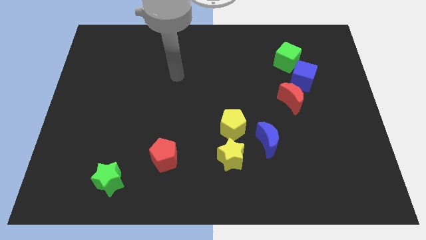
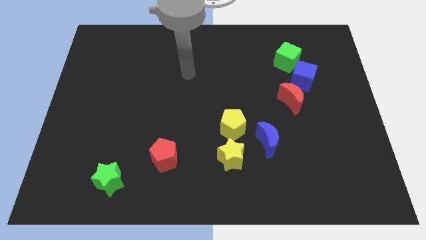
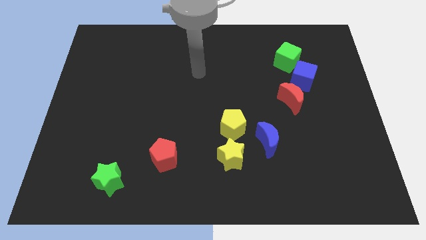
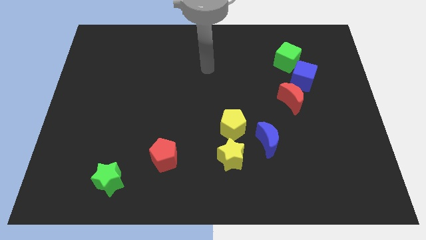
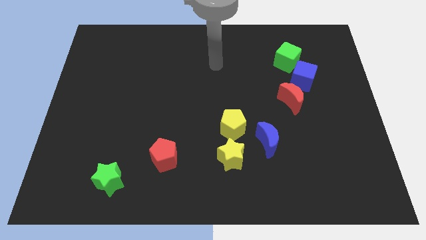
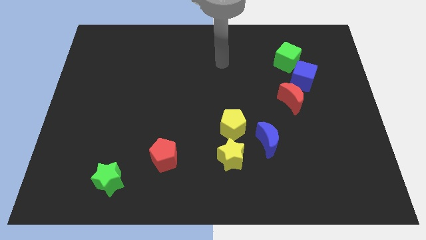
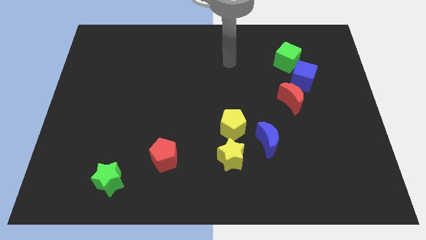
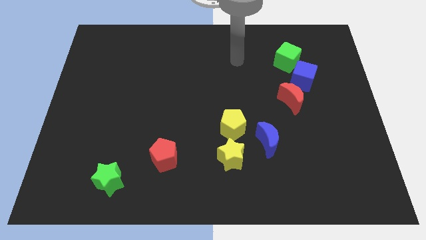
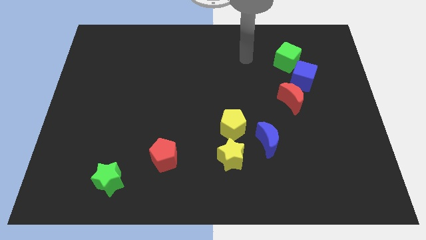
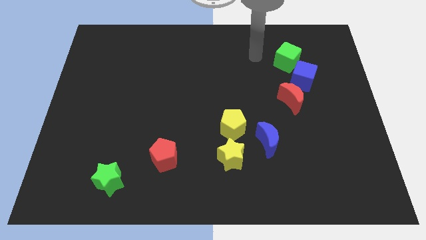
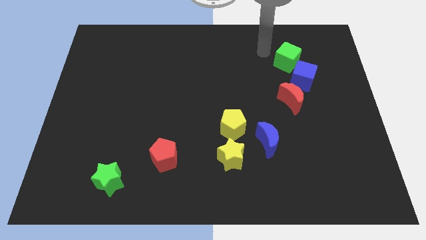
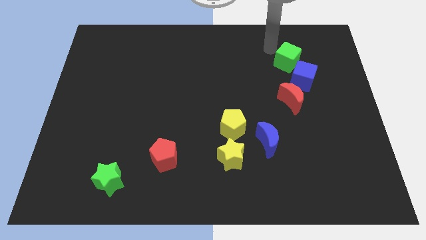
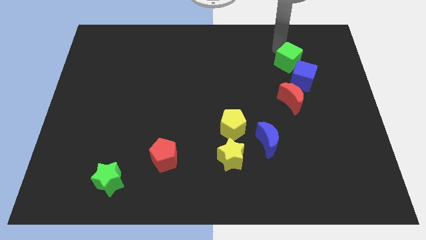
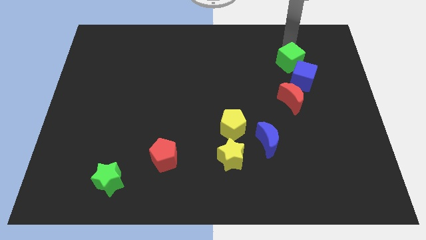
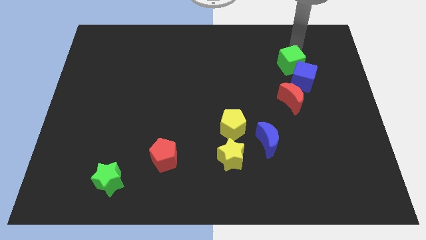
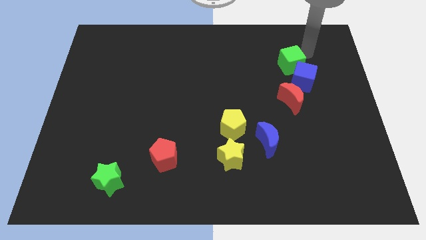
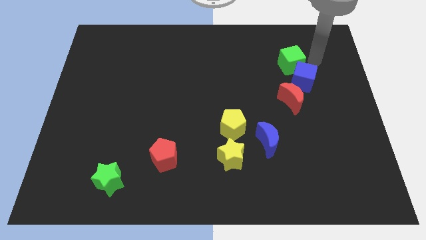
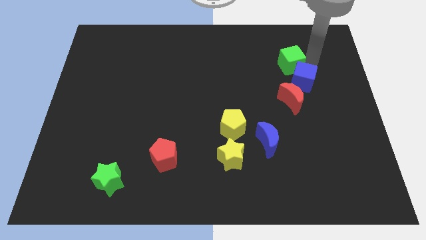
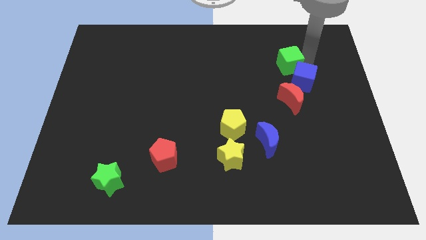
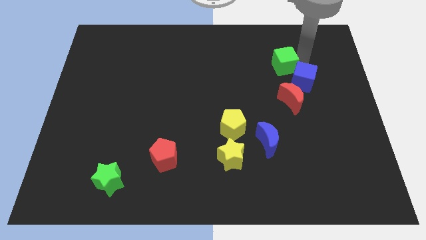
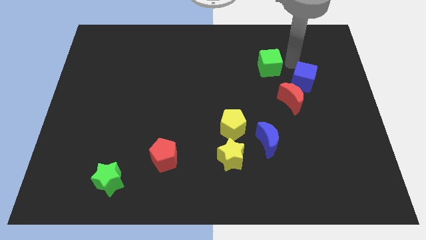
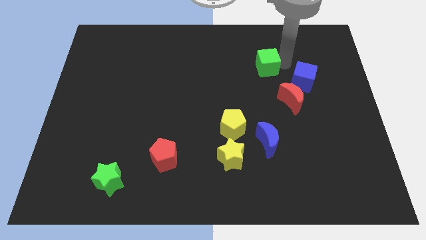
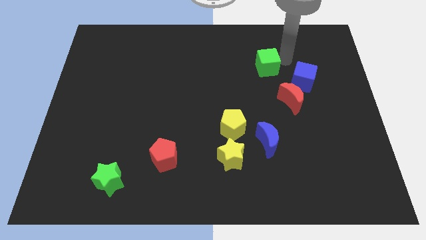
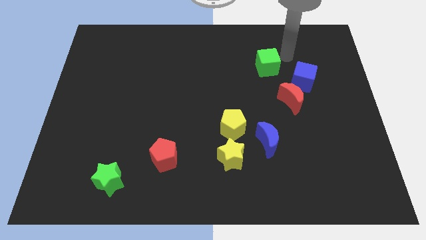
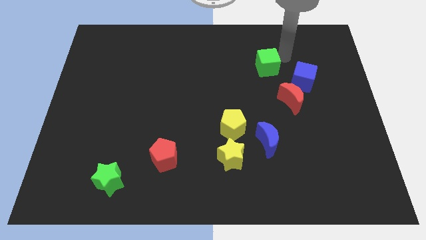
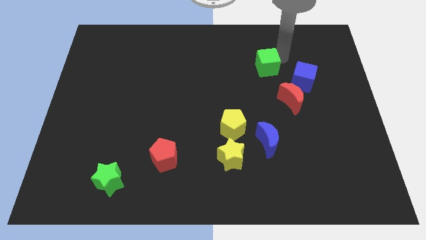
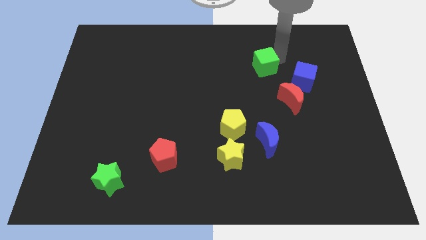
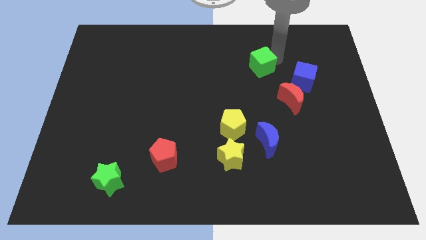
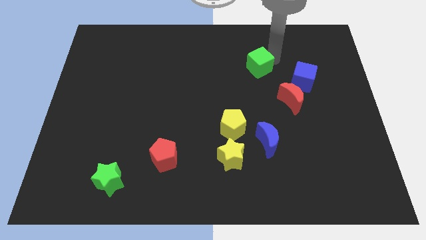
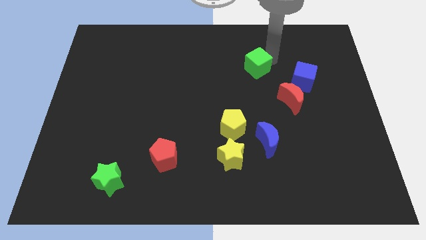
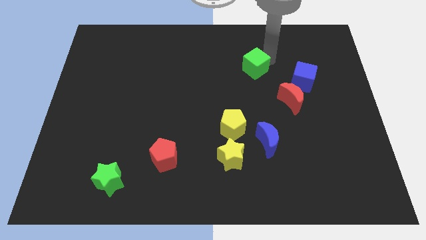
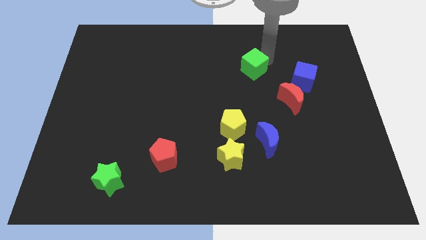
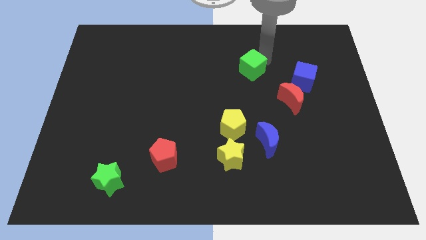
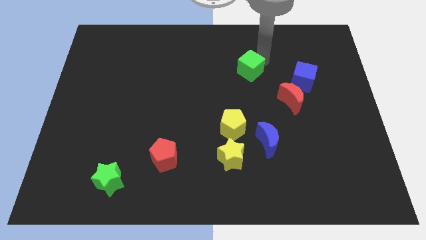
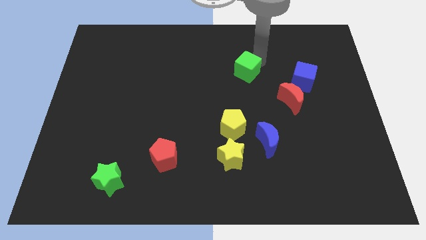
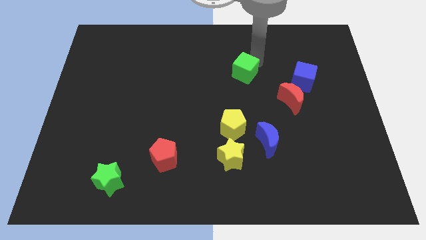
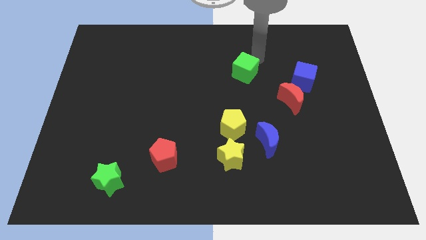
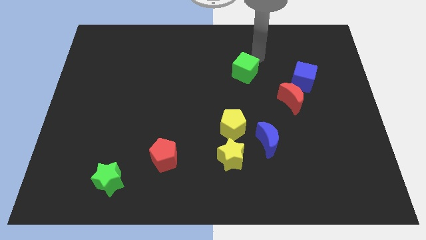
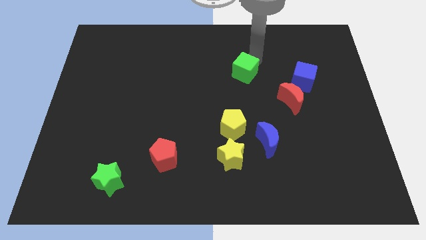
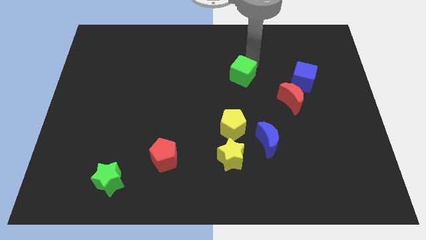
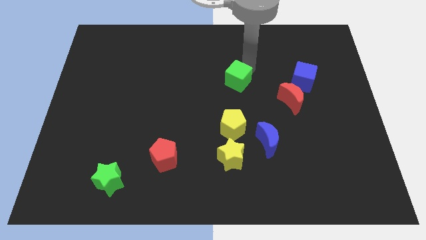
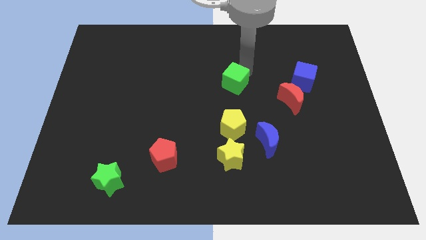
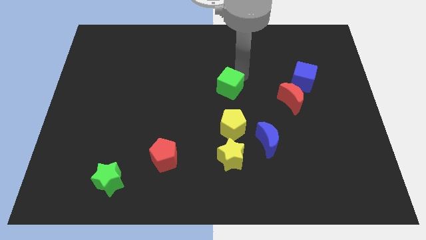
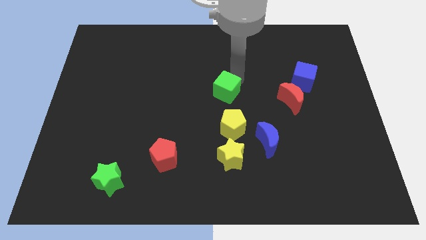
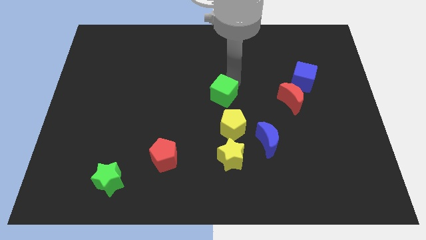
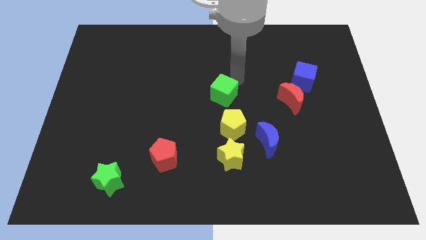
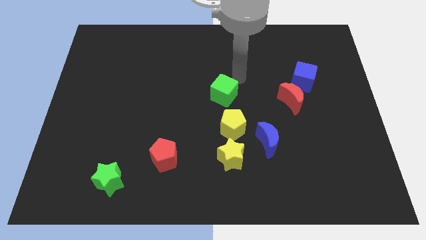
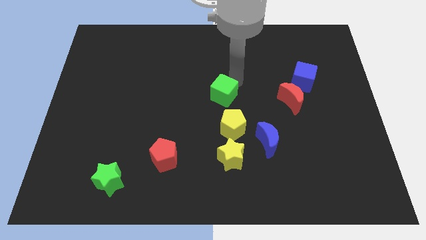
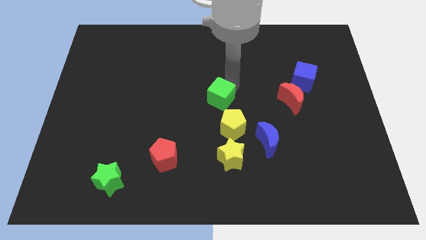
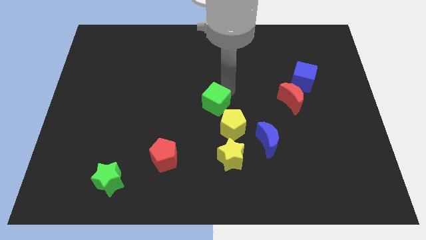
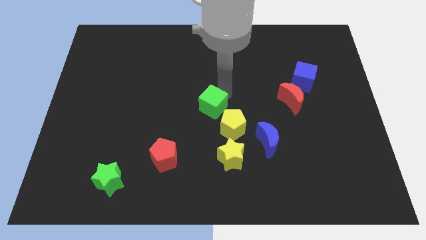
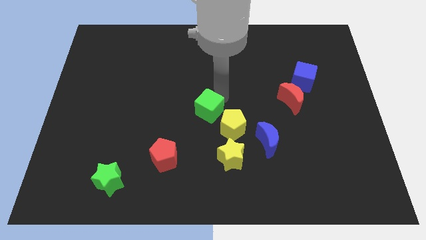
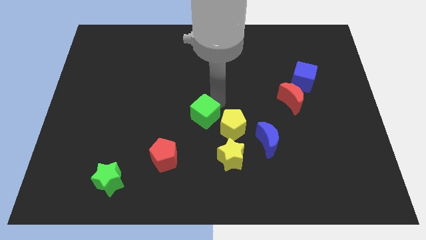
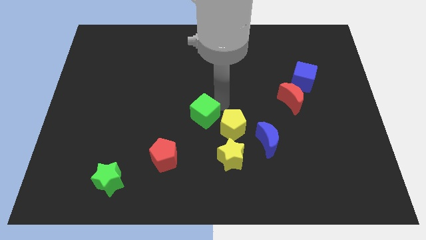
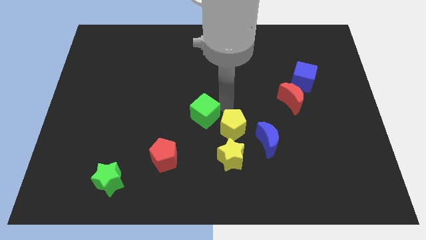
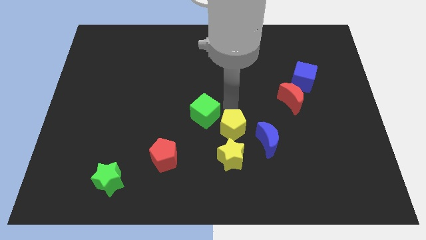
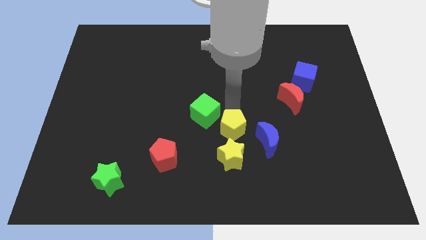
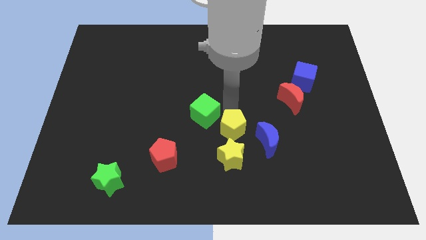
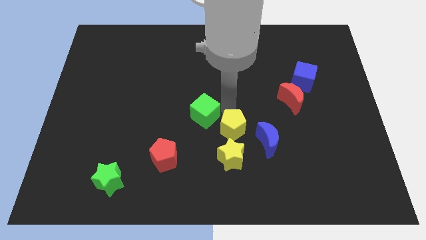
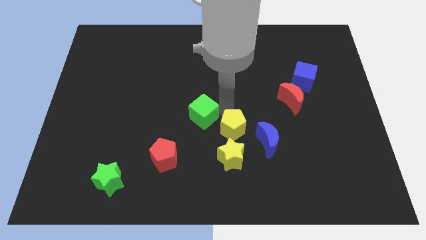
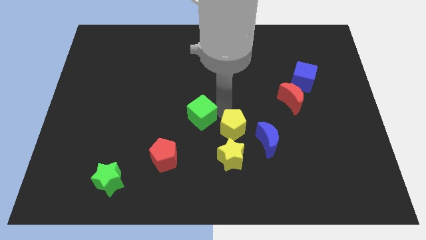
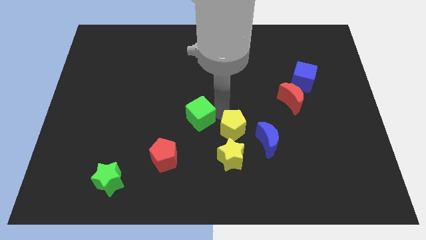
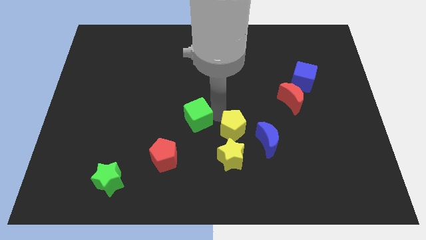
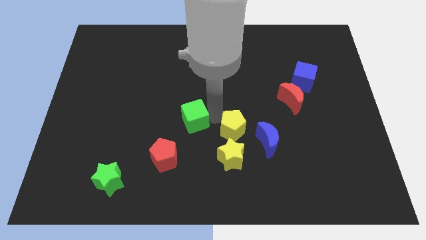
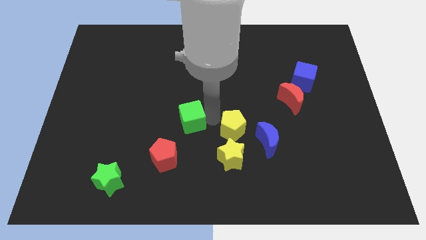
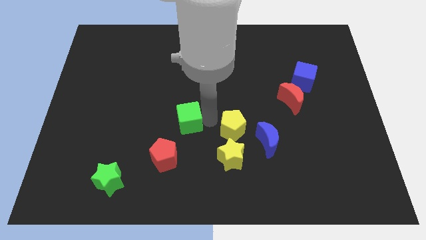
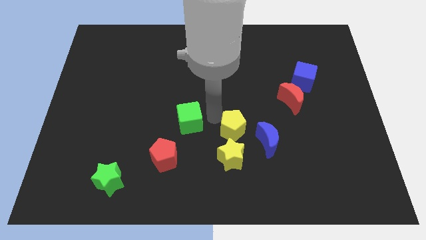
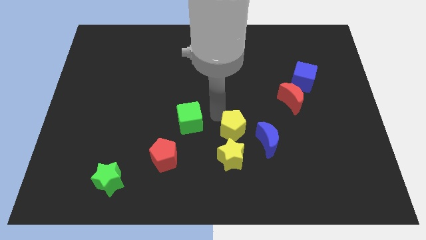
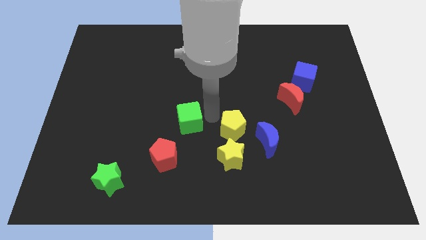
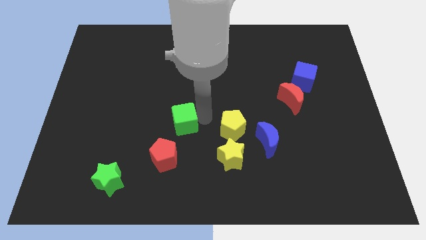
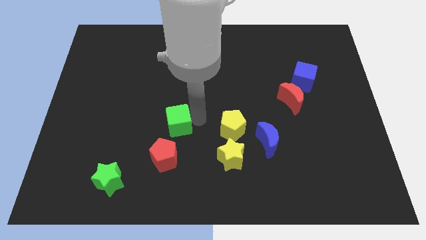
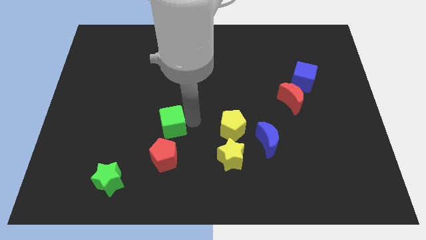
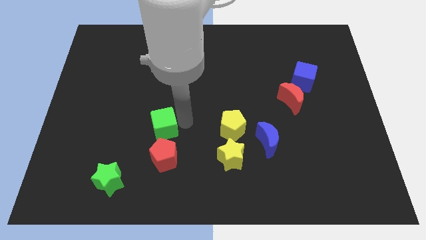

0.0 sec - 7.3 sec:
slide the green cube to the top left of the red pentagon
